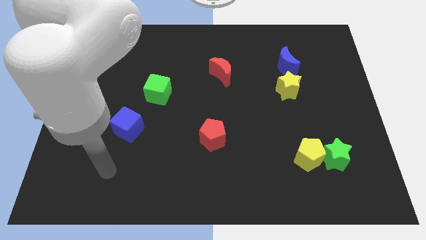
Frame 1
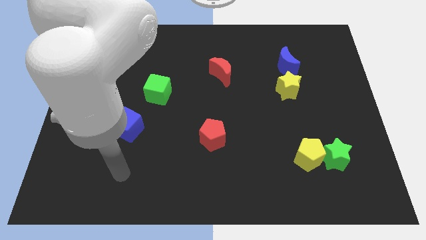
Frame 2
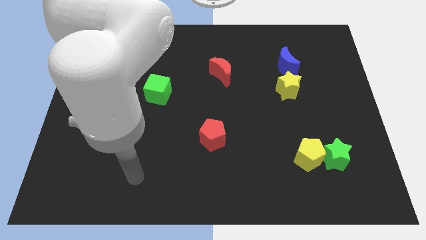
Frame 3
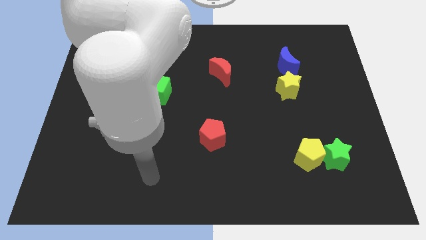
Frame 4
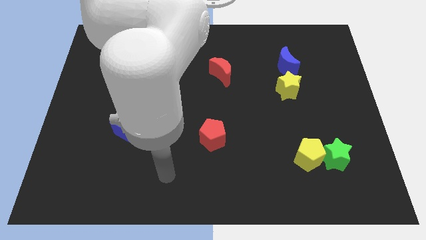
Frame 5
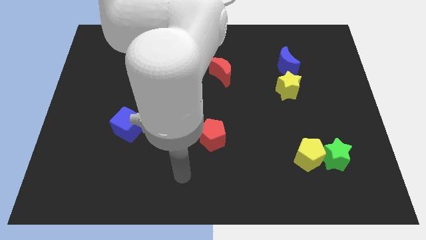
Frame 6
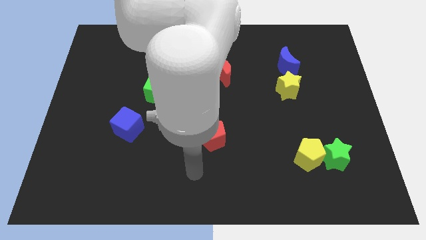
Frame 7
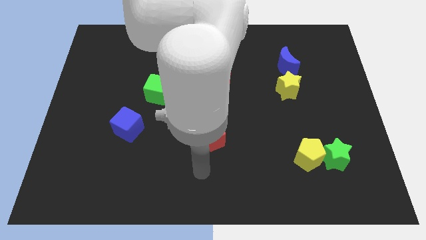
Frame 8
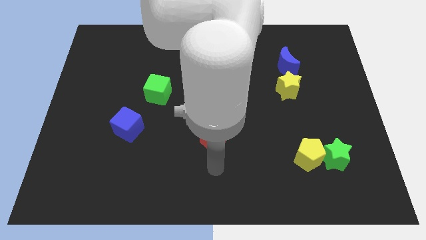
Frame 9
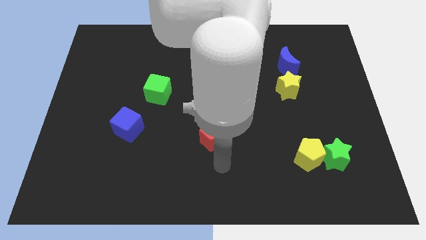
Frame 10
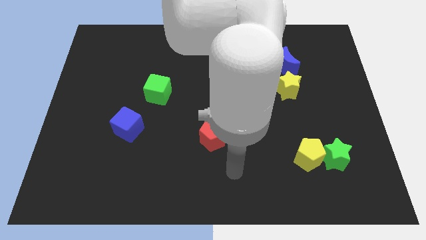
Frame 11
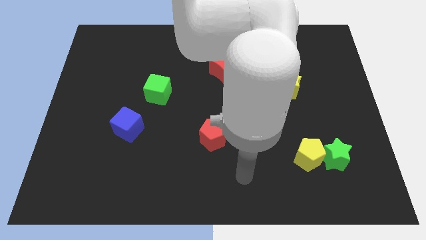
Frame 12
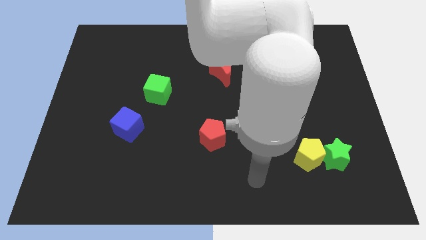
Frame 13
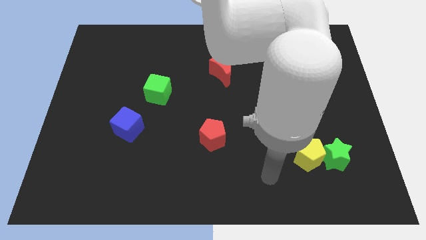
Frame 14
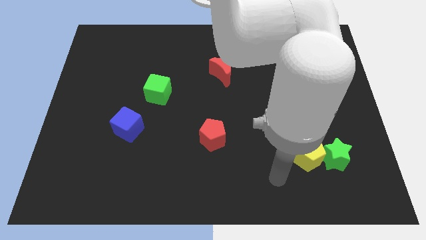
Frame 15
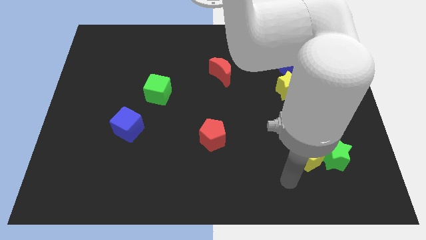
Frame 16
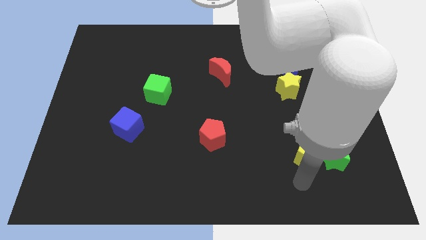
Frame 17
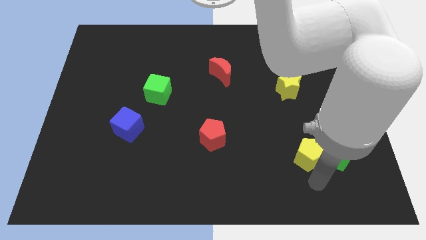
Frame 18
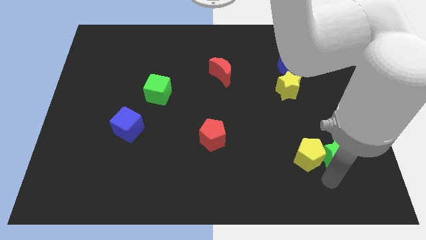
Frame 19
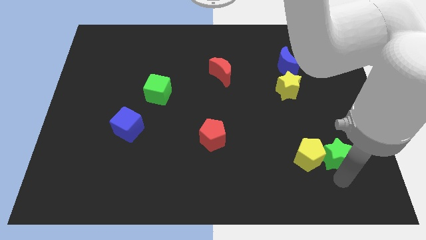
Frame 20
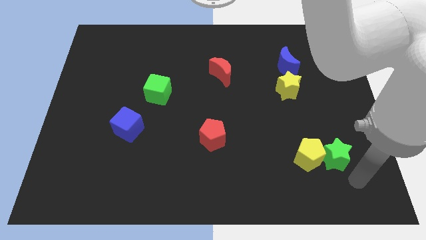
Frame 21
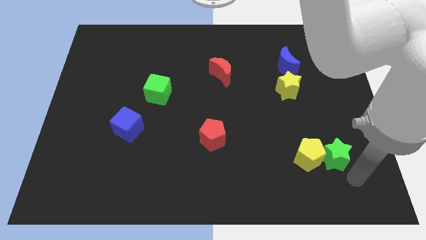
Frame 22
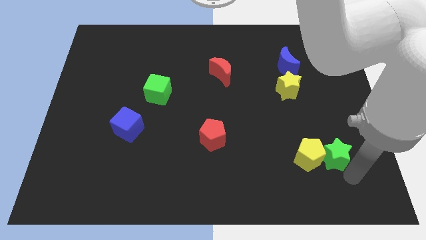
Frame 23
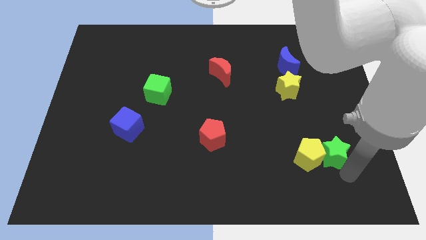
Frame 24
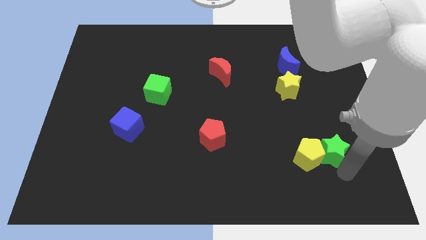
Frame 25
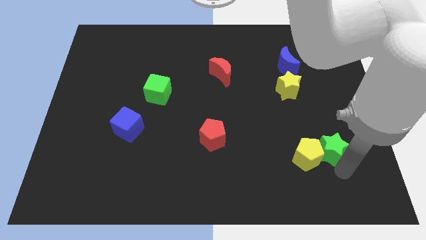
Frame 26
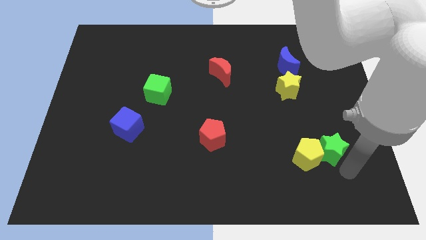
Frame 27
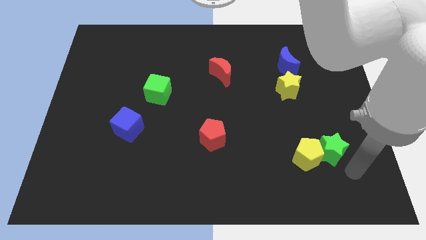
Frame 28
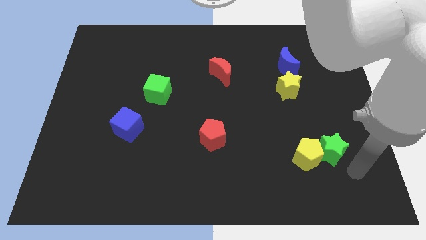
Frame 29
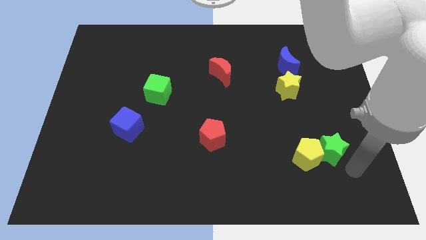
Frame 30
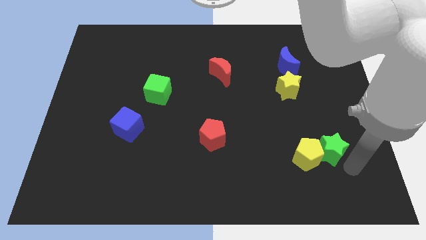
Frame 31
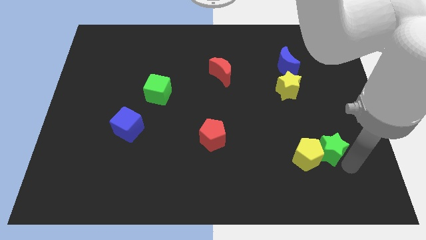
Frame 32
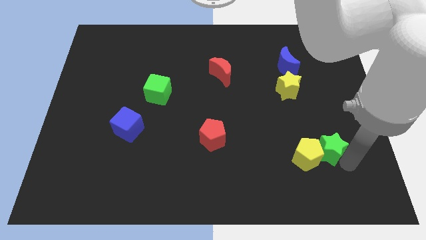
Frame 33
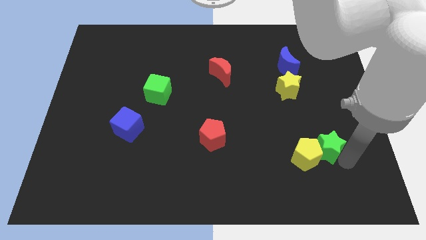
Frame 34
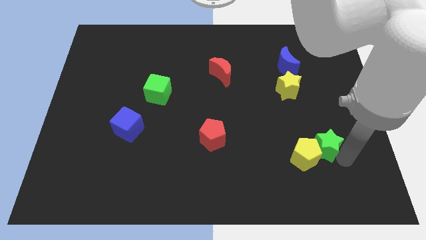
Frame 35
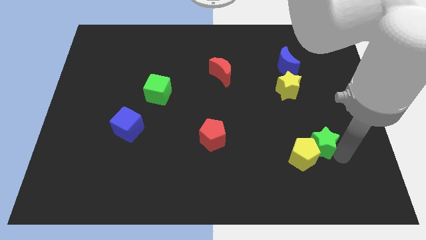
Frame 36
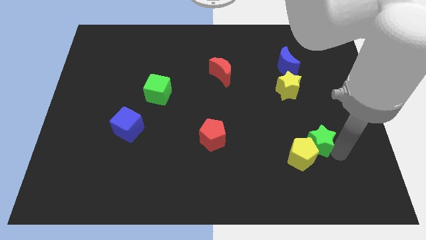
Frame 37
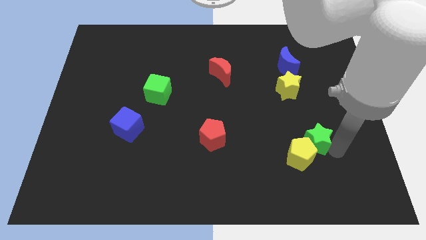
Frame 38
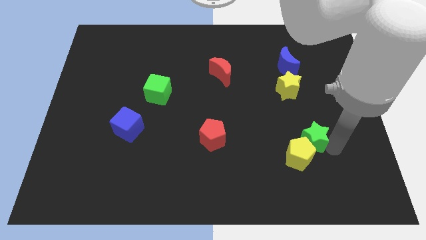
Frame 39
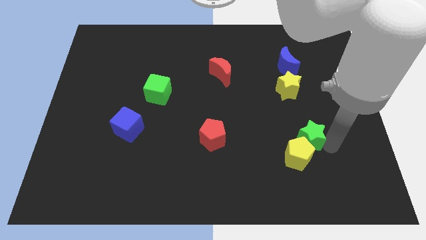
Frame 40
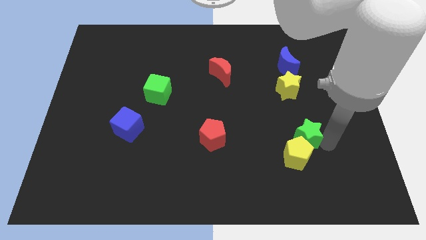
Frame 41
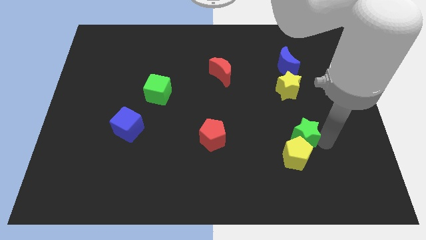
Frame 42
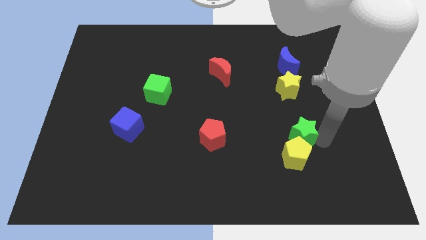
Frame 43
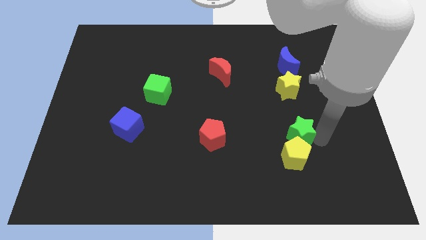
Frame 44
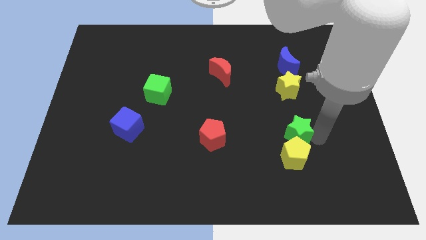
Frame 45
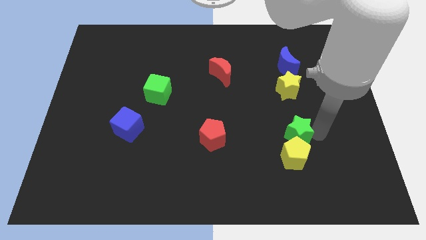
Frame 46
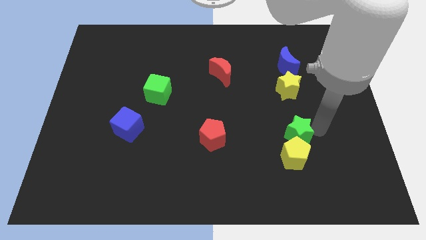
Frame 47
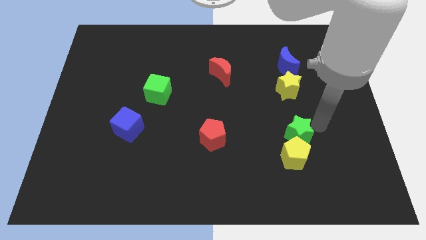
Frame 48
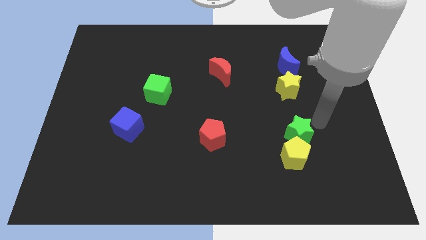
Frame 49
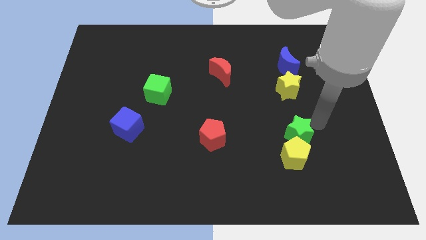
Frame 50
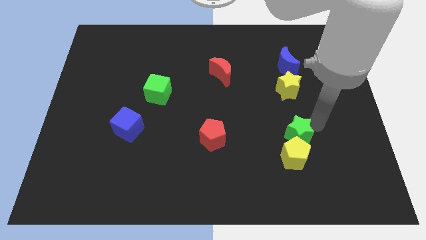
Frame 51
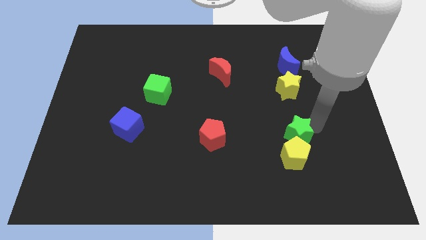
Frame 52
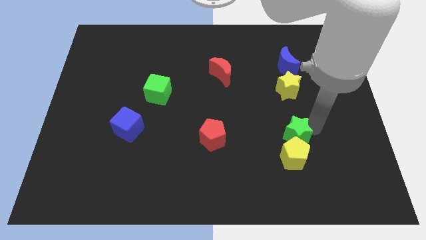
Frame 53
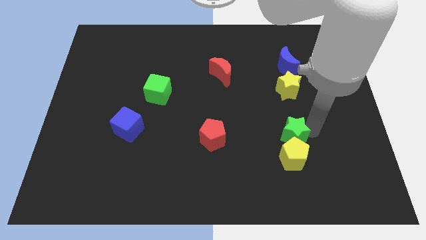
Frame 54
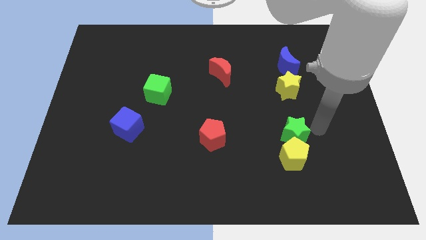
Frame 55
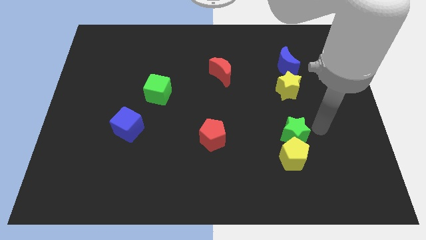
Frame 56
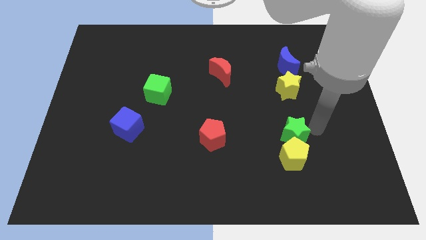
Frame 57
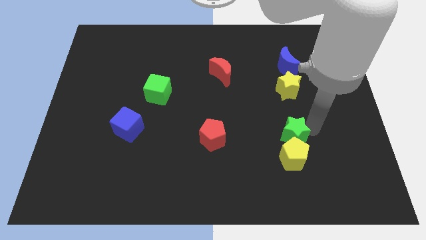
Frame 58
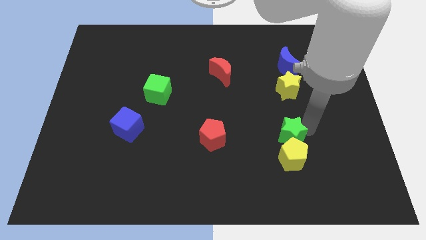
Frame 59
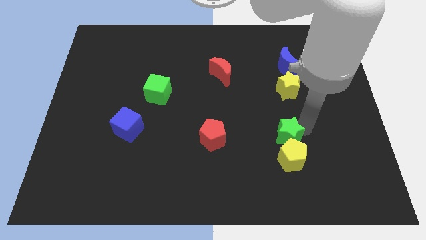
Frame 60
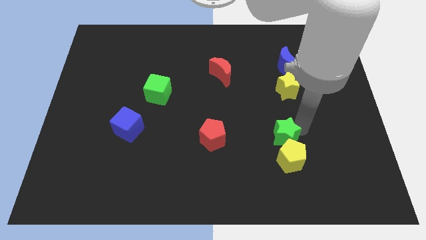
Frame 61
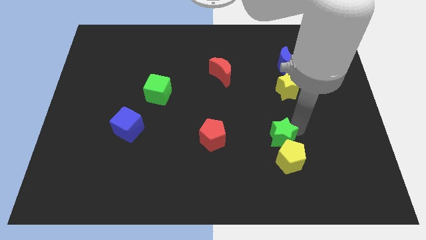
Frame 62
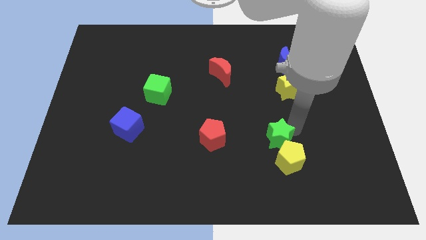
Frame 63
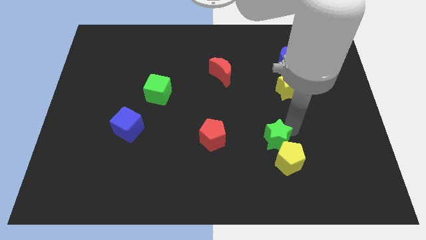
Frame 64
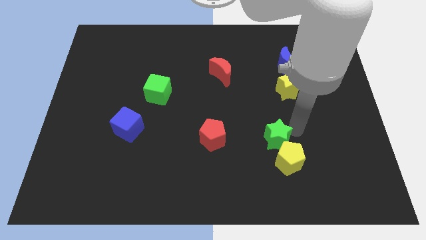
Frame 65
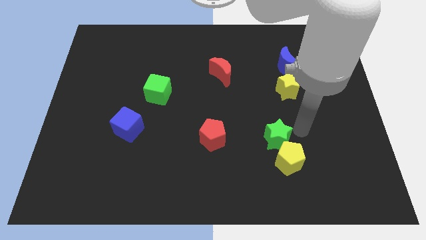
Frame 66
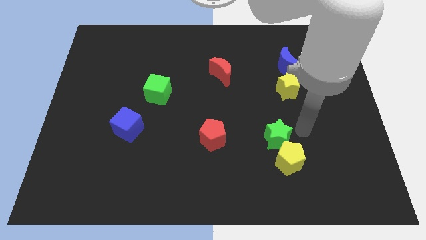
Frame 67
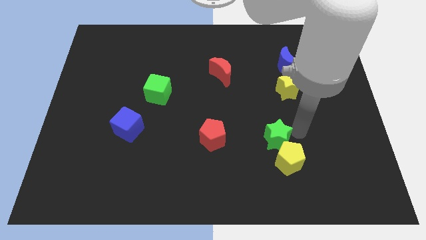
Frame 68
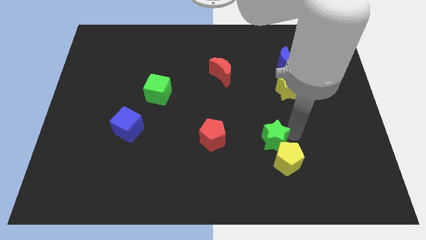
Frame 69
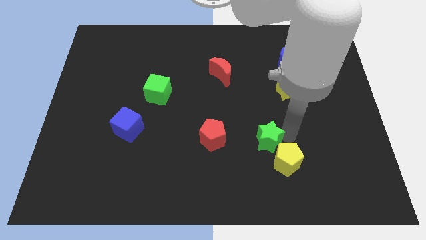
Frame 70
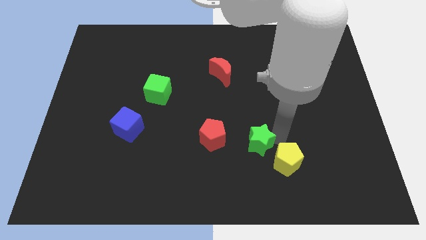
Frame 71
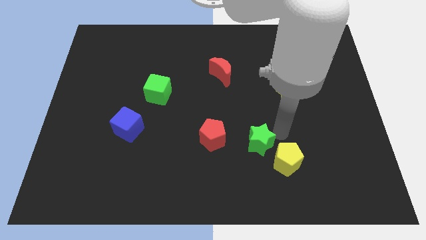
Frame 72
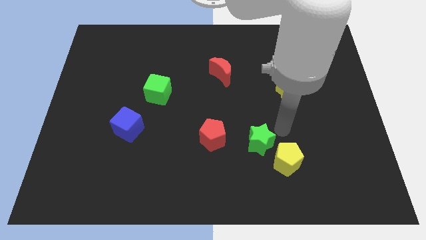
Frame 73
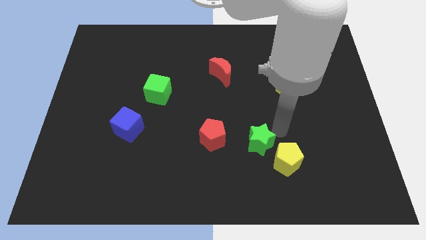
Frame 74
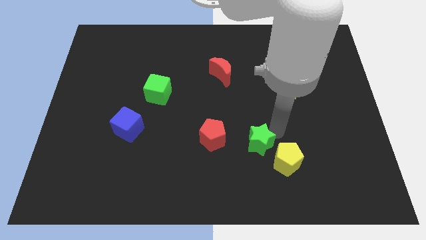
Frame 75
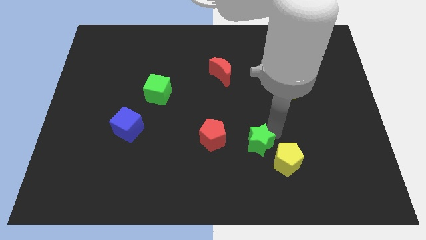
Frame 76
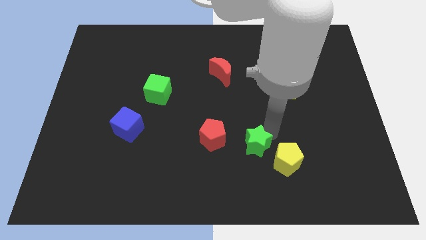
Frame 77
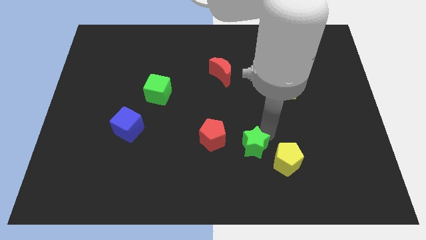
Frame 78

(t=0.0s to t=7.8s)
move the green star to the bottom right side of the red pentagon

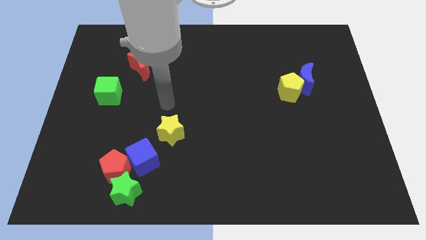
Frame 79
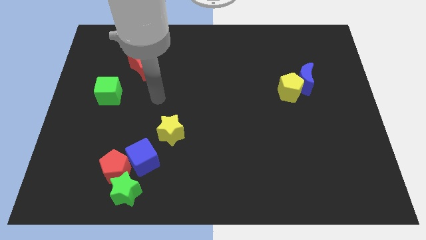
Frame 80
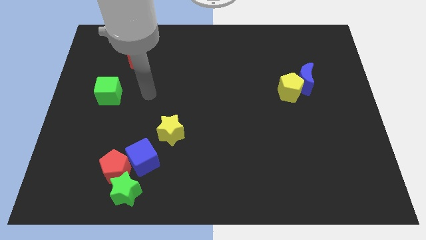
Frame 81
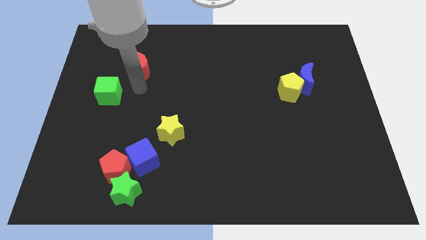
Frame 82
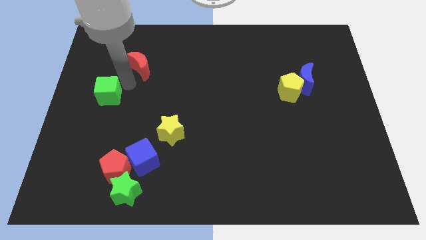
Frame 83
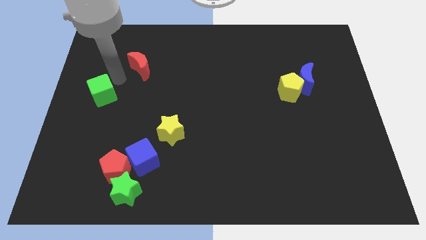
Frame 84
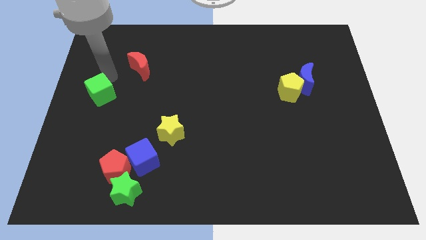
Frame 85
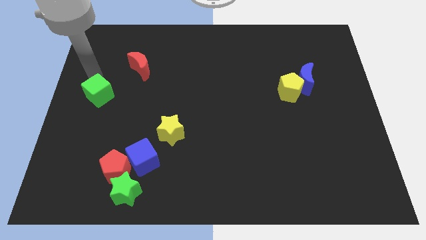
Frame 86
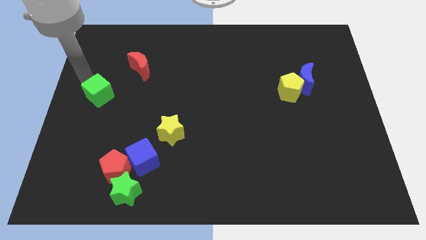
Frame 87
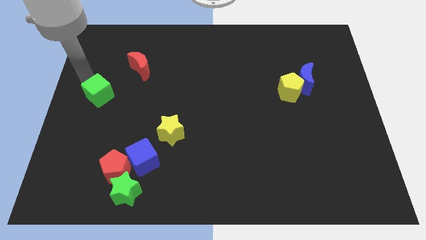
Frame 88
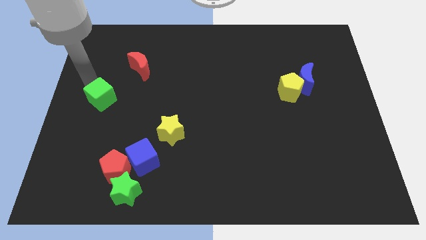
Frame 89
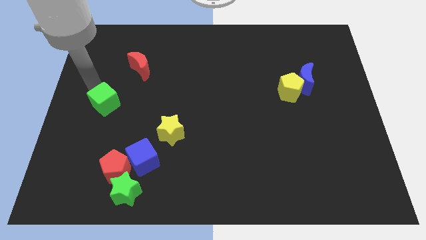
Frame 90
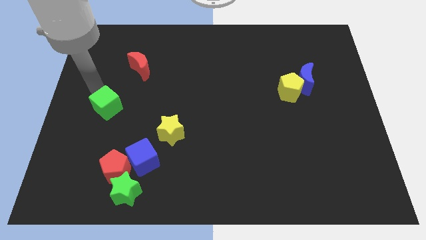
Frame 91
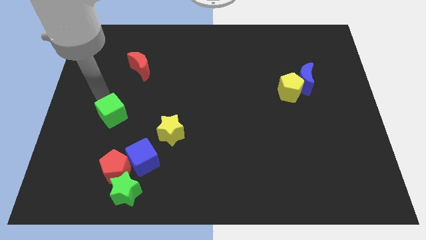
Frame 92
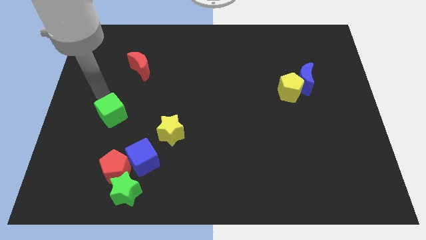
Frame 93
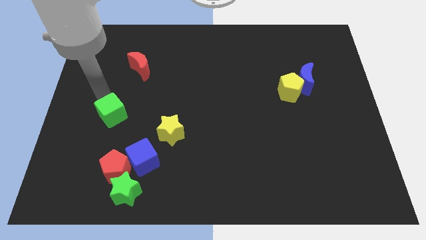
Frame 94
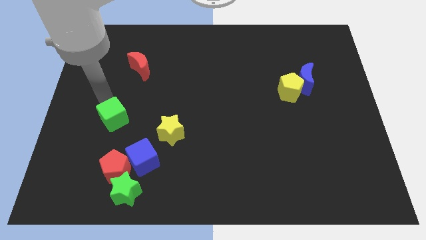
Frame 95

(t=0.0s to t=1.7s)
move the green cube to the left of the yellow star
